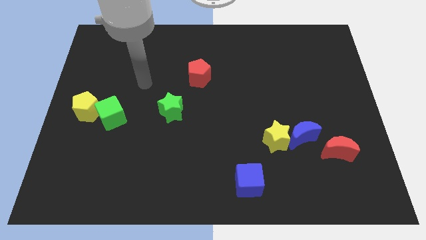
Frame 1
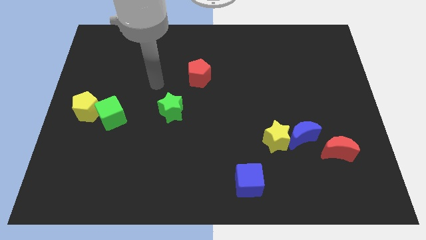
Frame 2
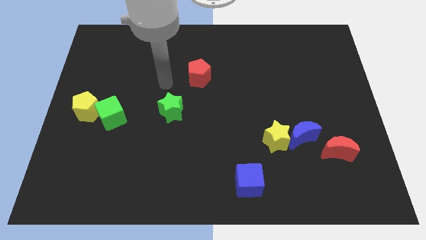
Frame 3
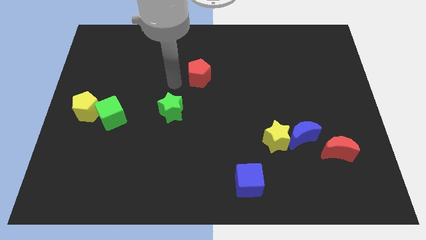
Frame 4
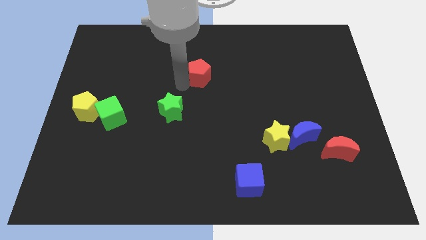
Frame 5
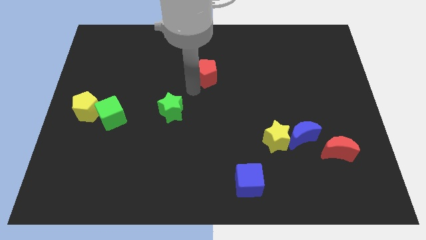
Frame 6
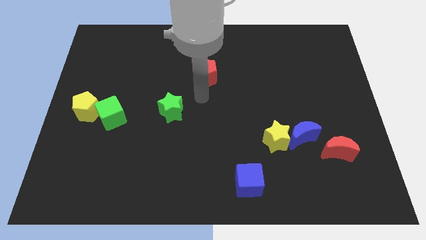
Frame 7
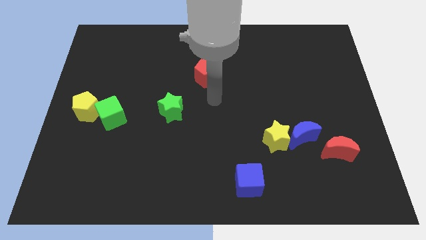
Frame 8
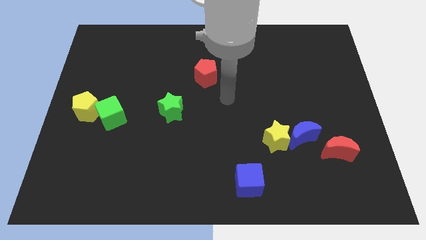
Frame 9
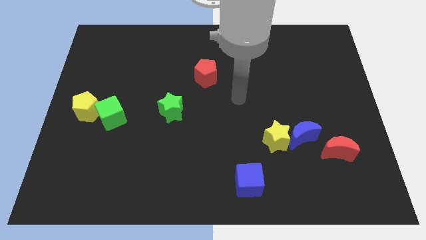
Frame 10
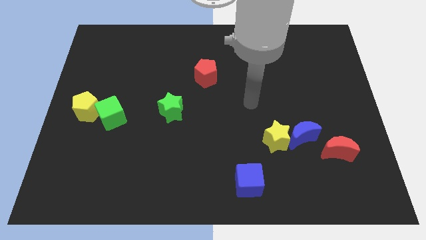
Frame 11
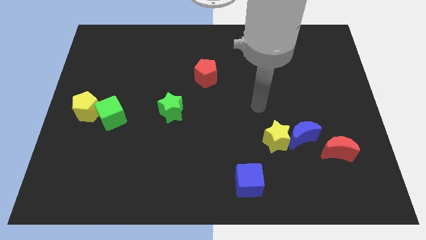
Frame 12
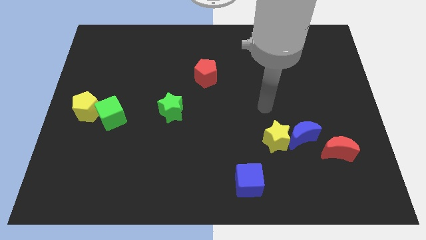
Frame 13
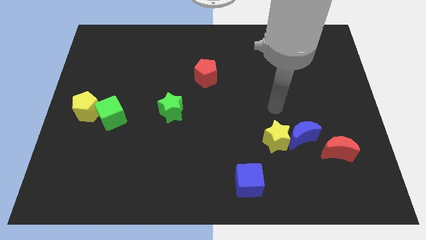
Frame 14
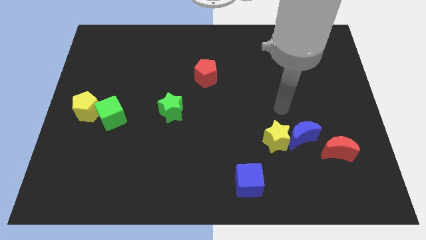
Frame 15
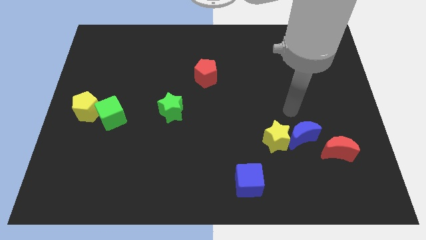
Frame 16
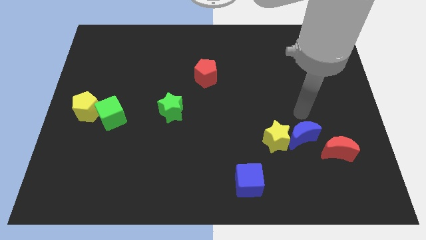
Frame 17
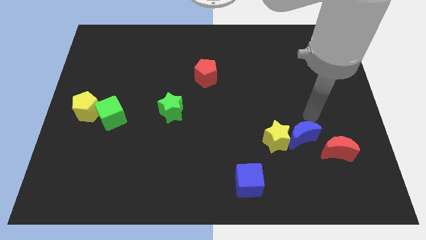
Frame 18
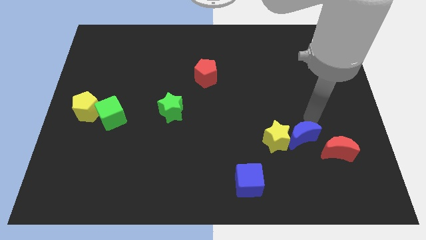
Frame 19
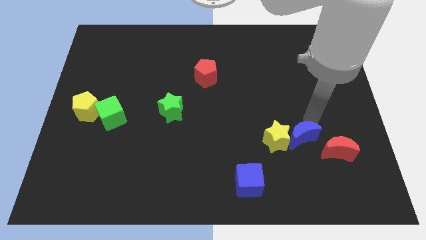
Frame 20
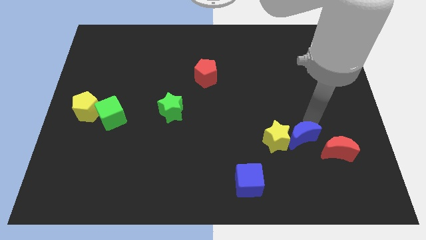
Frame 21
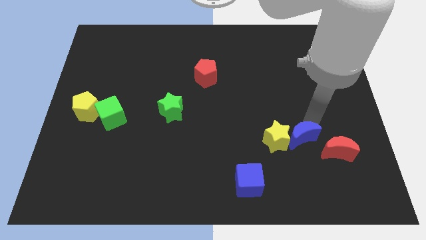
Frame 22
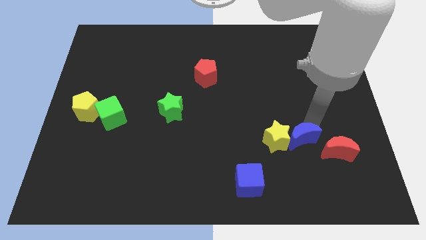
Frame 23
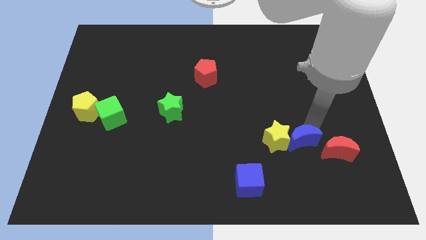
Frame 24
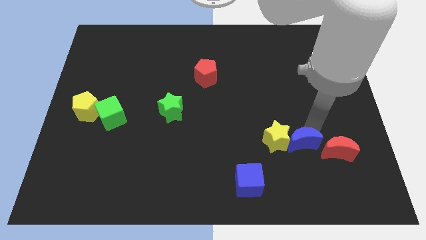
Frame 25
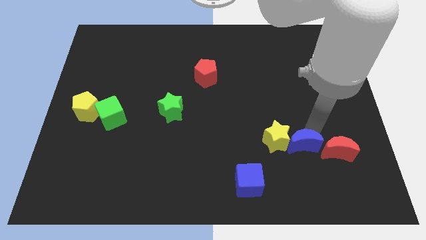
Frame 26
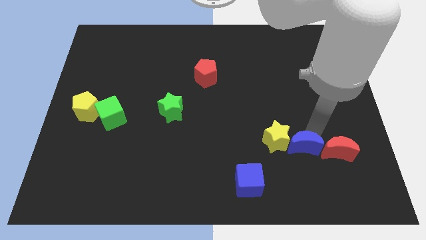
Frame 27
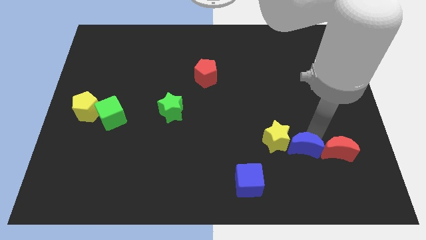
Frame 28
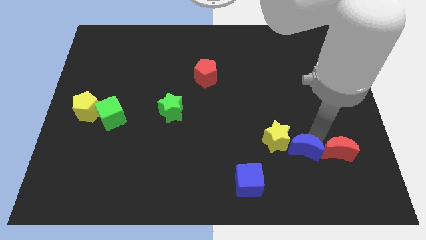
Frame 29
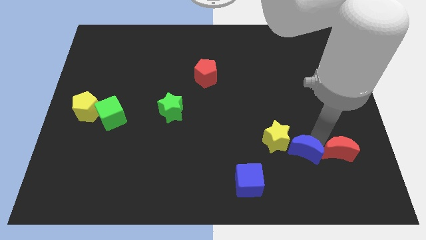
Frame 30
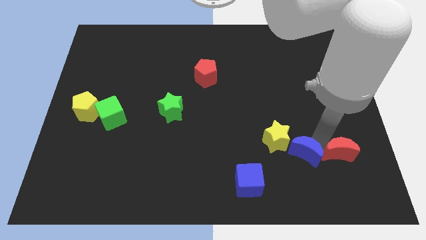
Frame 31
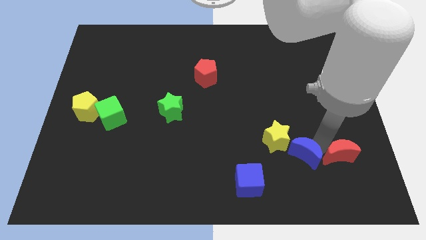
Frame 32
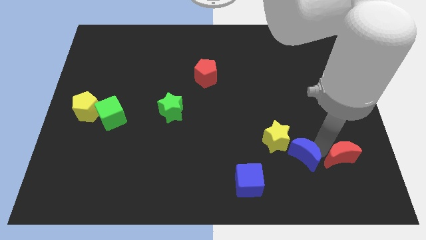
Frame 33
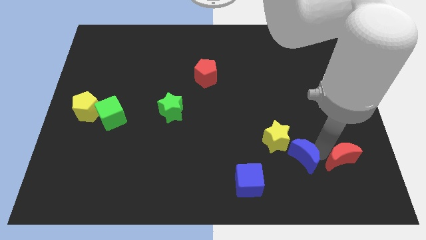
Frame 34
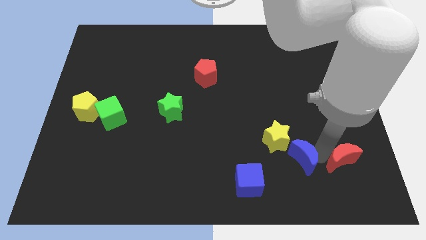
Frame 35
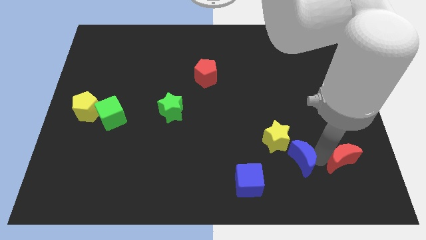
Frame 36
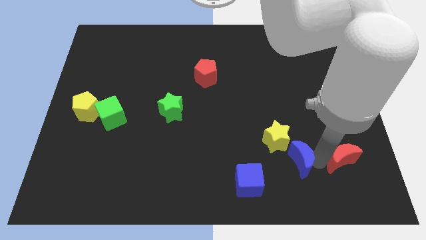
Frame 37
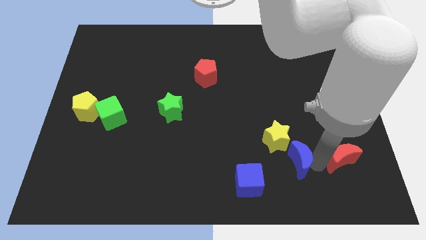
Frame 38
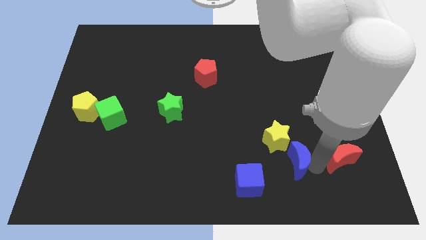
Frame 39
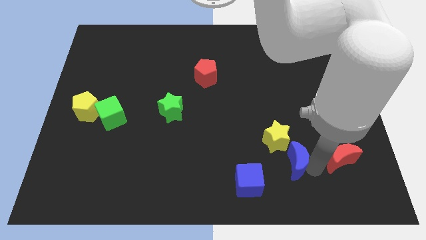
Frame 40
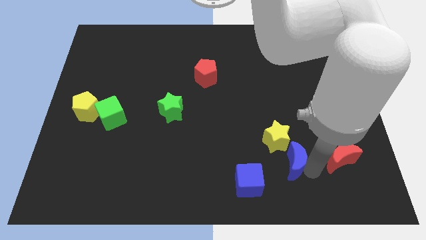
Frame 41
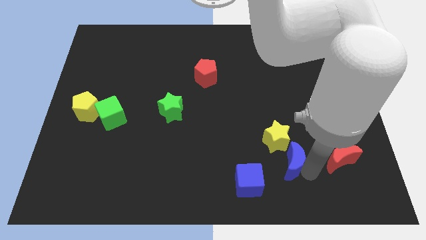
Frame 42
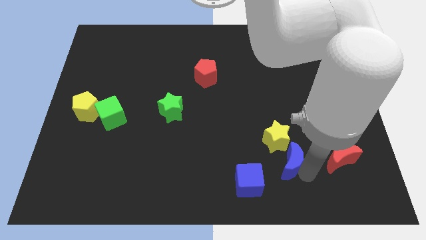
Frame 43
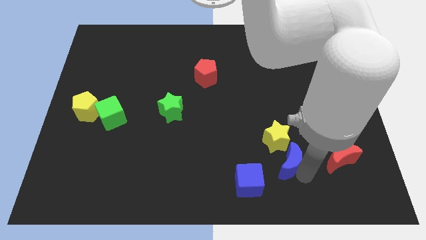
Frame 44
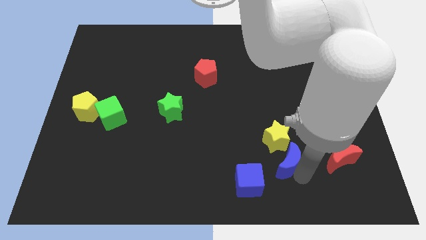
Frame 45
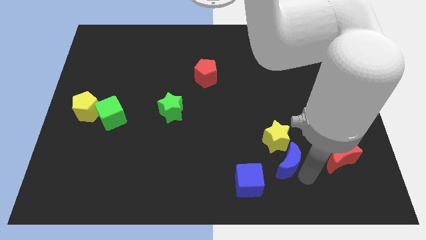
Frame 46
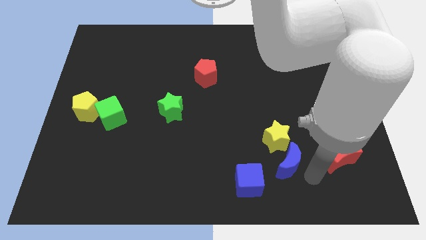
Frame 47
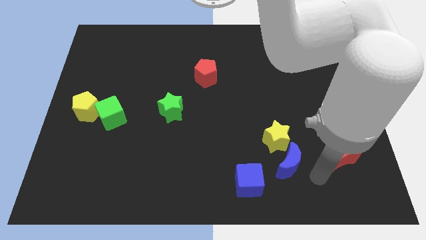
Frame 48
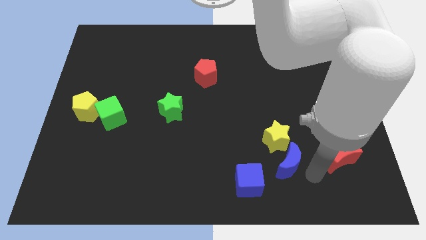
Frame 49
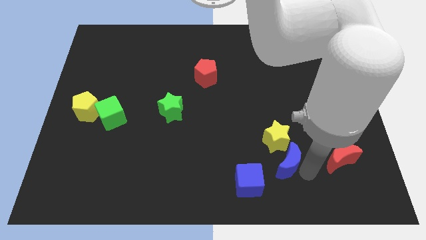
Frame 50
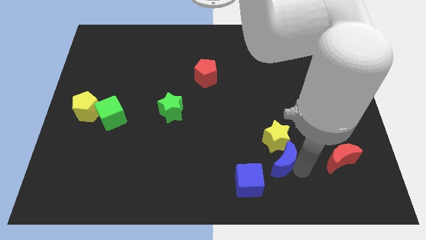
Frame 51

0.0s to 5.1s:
put the blue moon to the bottom left of the yellow star

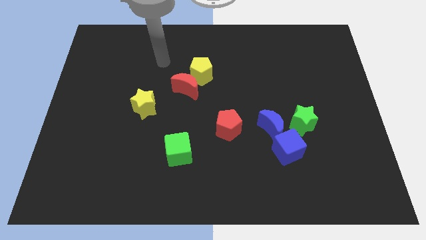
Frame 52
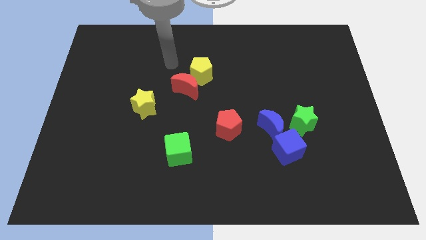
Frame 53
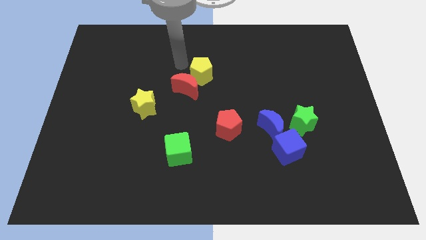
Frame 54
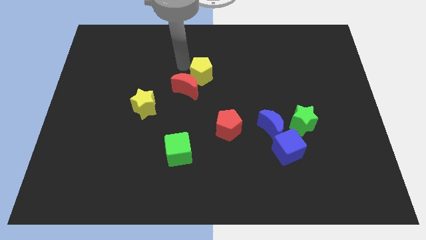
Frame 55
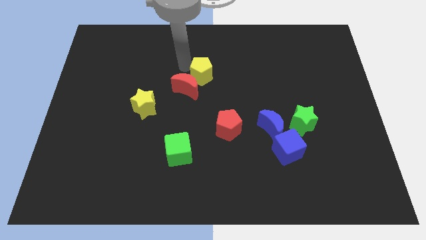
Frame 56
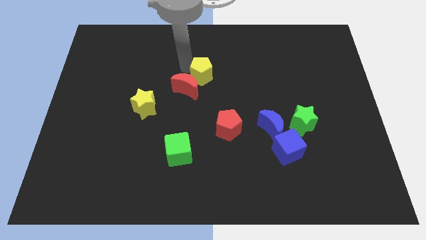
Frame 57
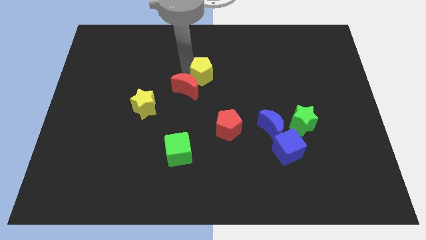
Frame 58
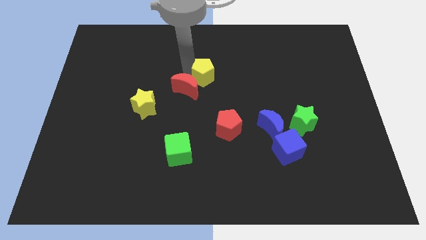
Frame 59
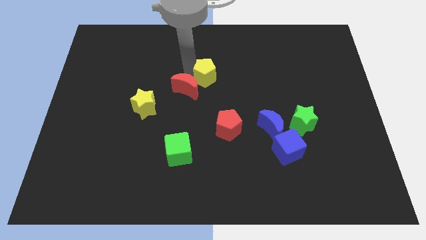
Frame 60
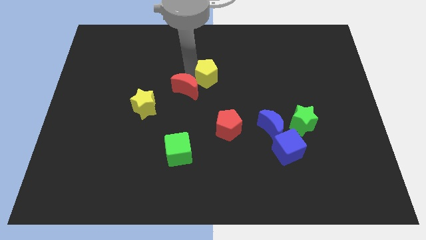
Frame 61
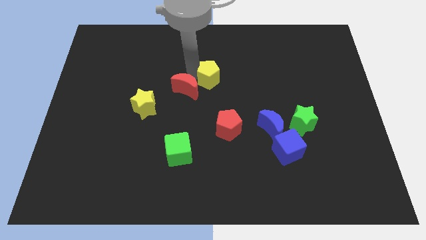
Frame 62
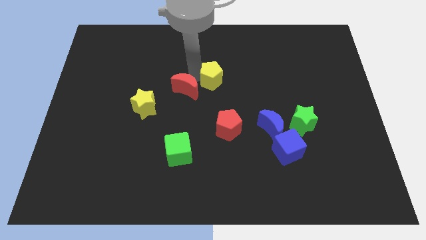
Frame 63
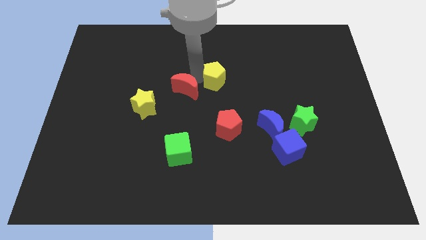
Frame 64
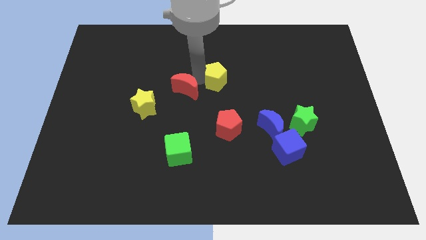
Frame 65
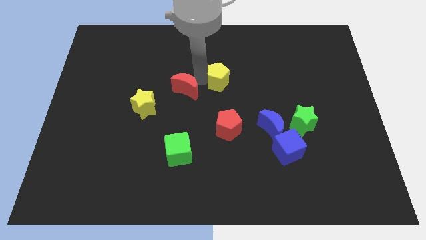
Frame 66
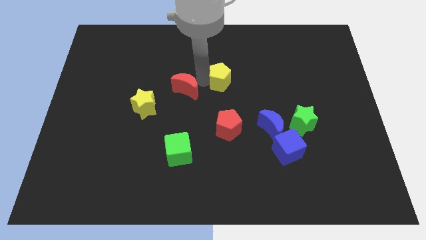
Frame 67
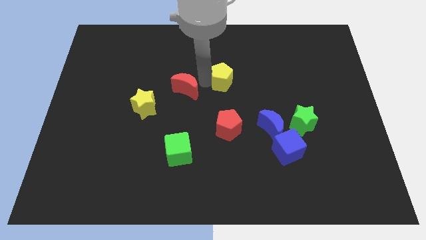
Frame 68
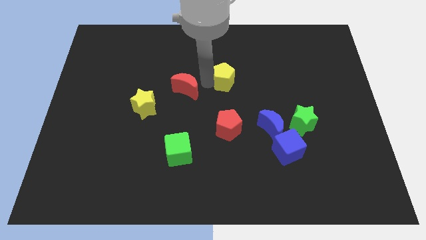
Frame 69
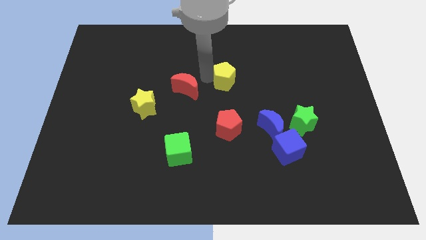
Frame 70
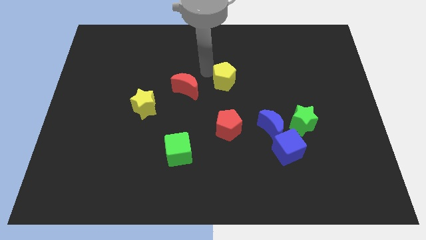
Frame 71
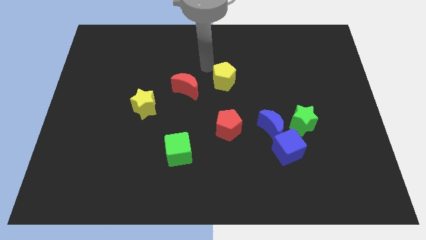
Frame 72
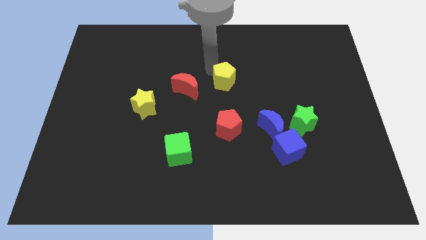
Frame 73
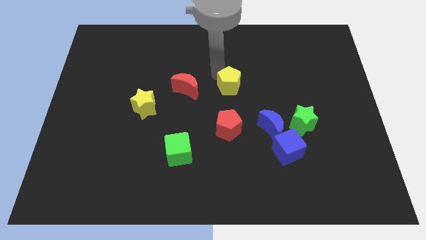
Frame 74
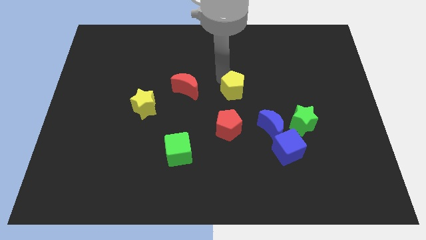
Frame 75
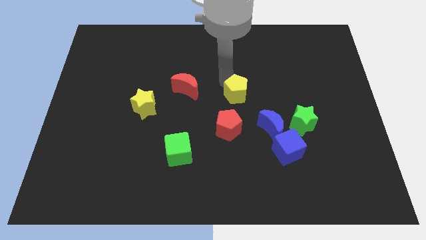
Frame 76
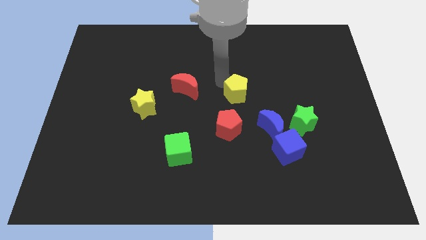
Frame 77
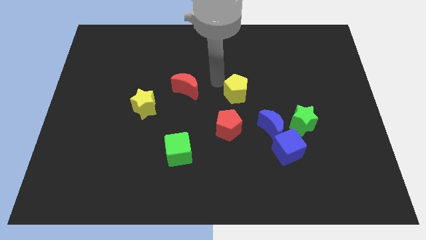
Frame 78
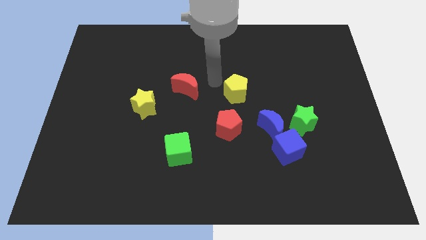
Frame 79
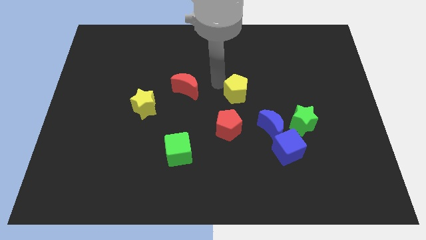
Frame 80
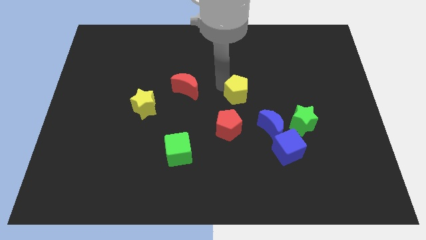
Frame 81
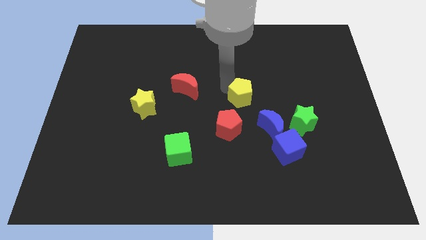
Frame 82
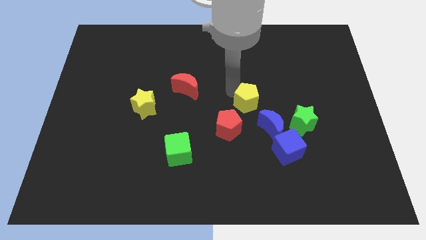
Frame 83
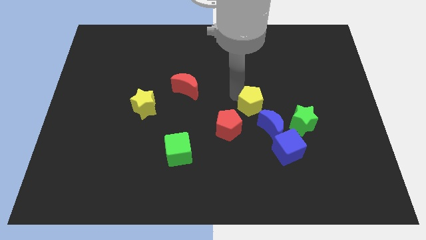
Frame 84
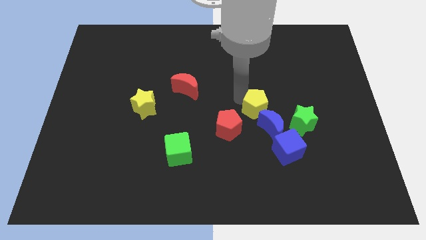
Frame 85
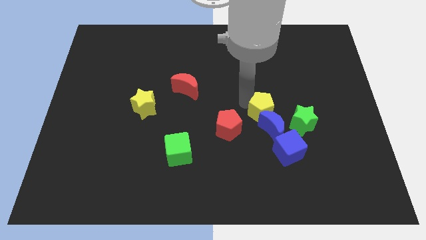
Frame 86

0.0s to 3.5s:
move the yellow pentagon to the top side of the blue cube
